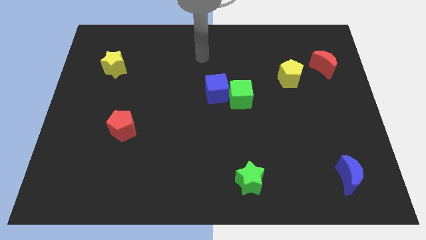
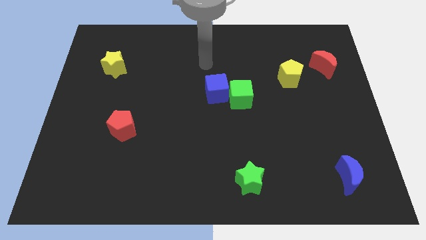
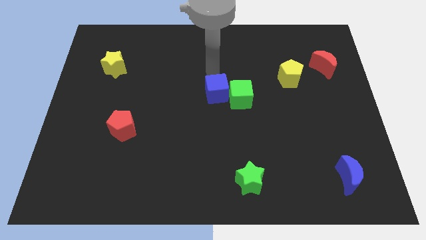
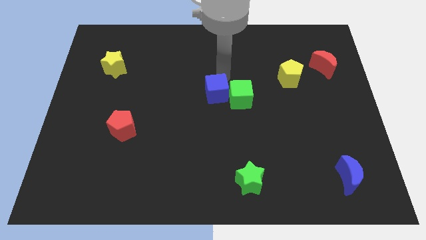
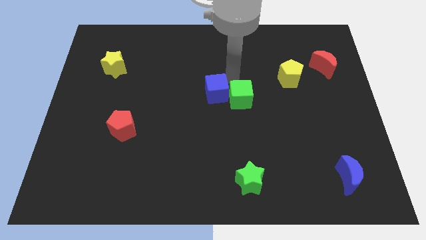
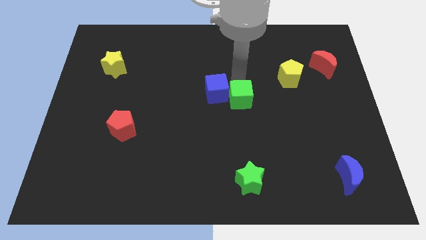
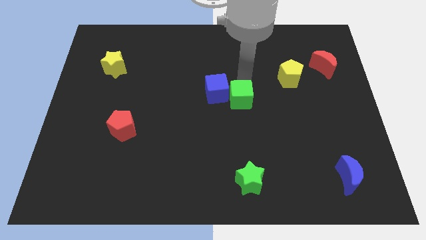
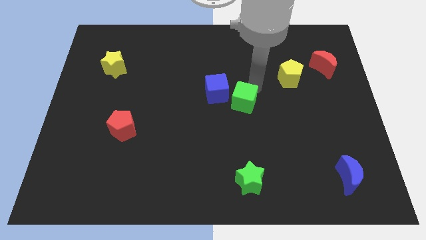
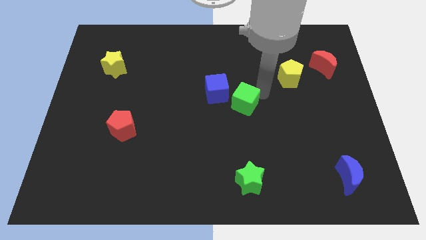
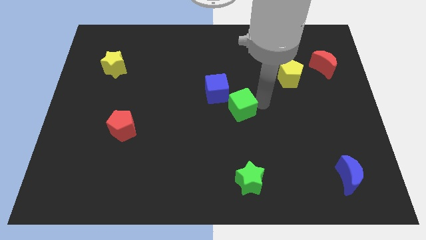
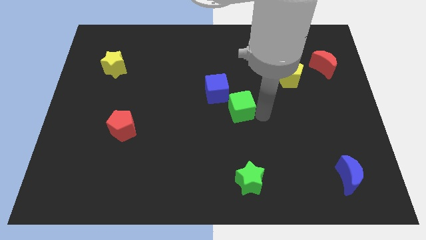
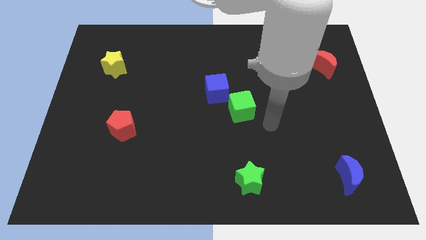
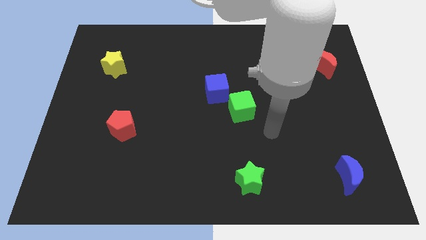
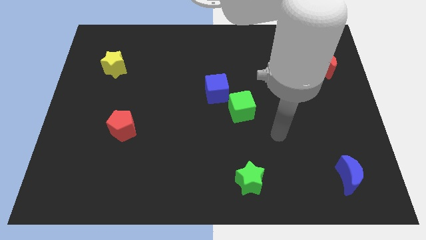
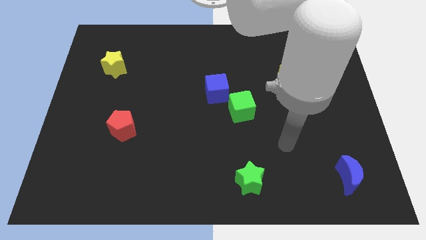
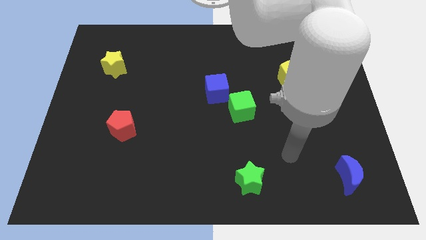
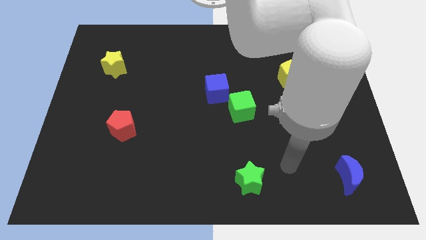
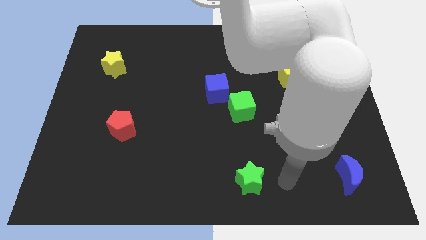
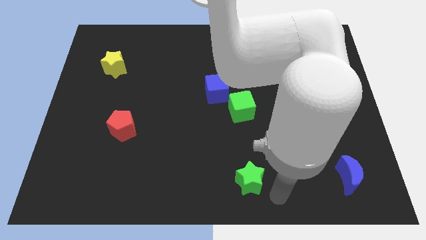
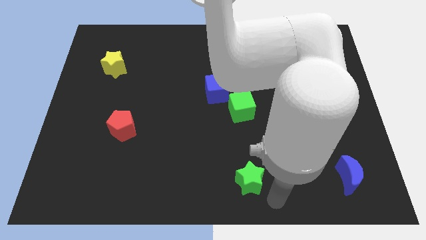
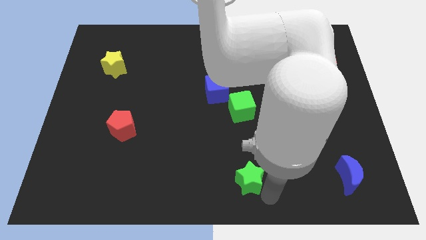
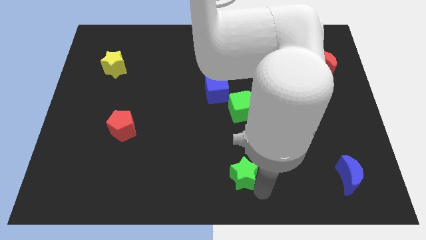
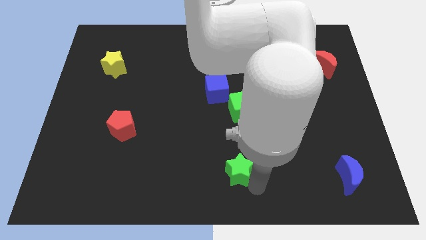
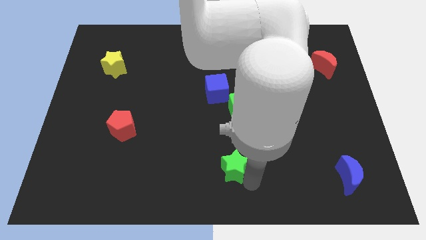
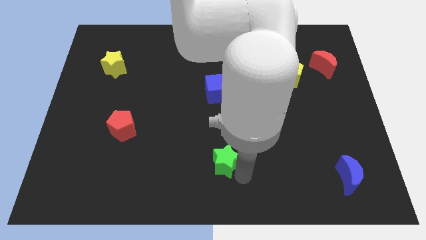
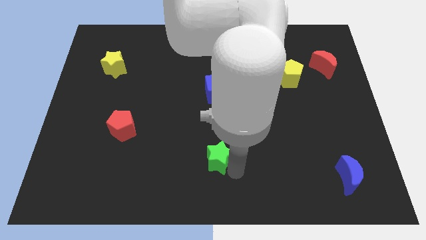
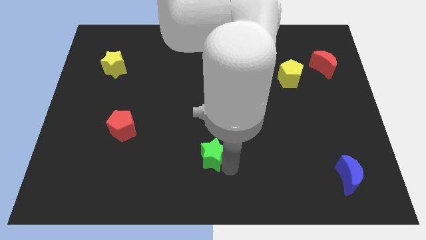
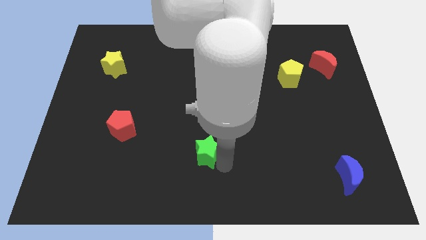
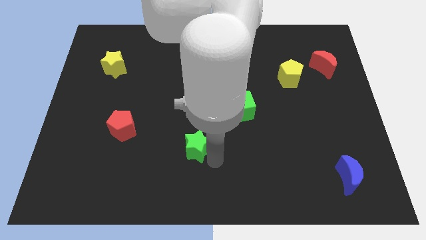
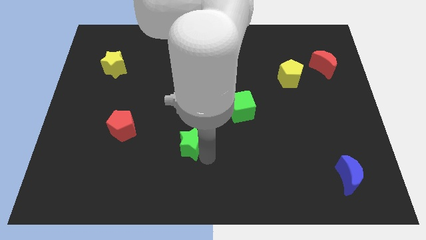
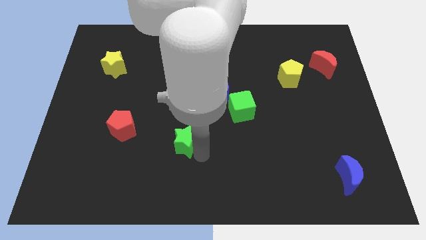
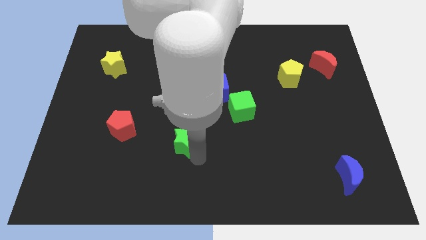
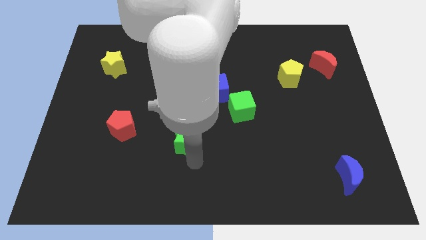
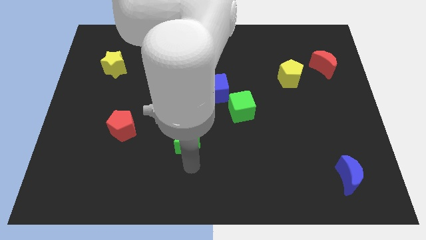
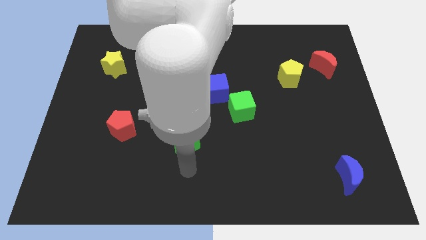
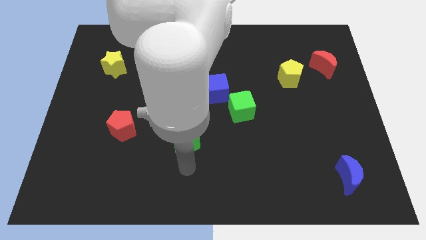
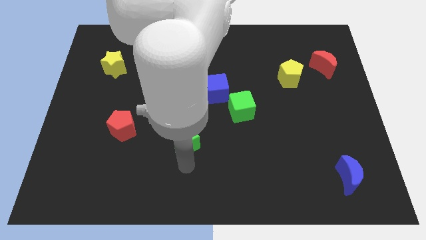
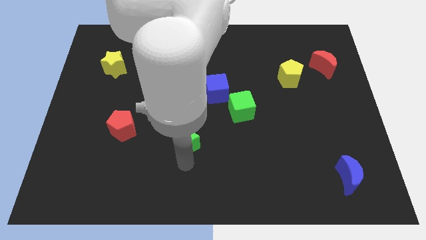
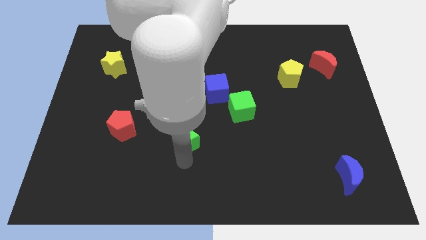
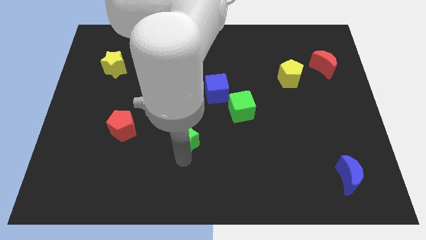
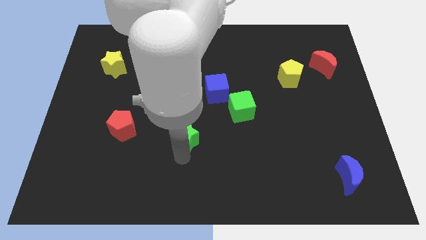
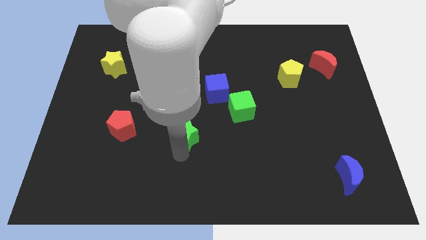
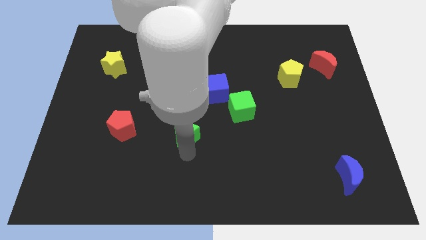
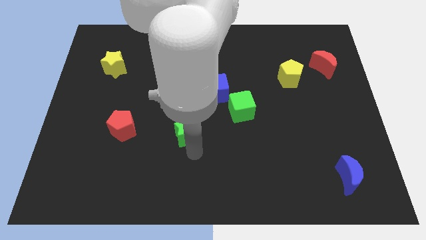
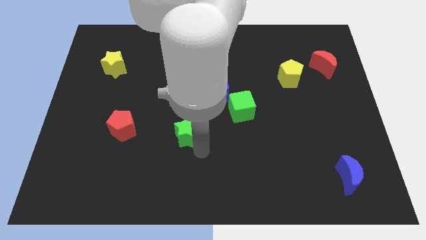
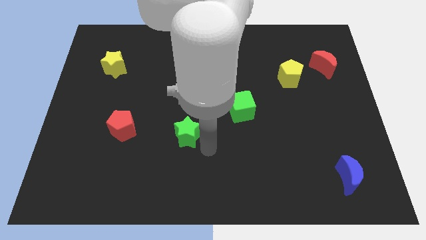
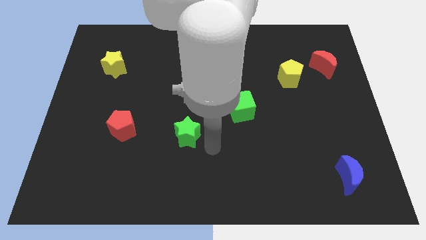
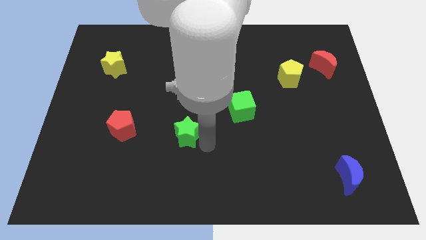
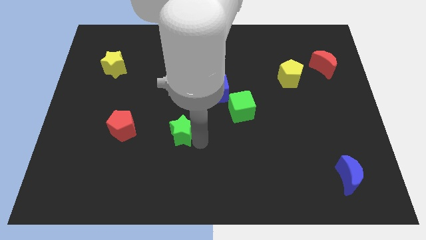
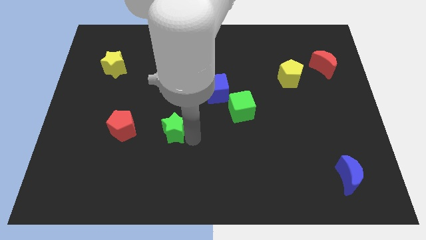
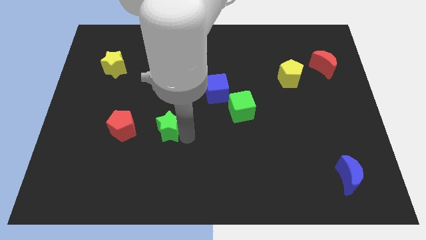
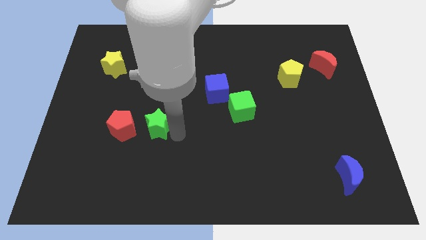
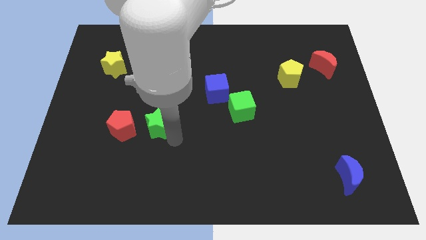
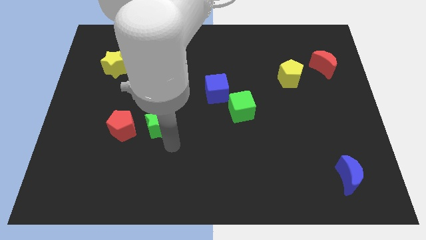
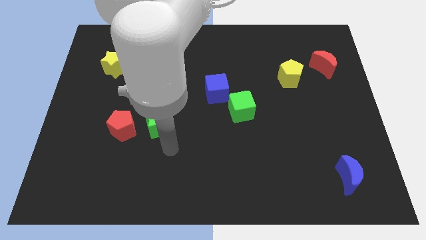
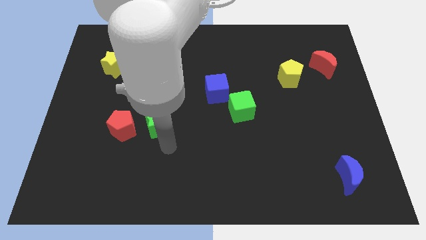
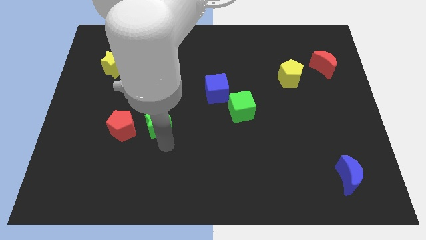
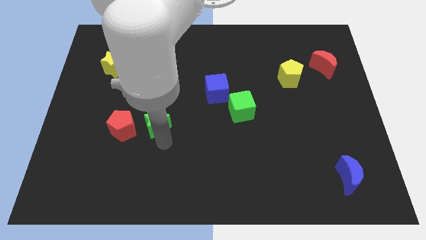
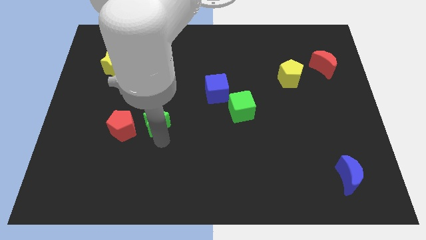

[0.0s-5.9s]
push the green star to the top right of the red pentagon

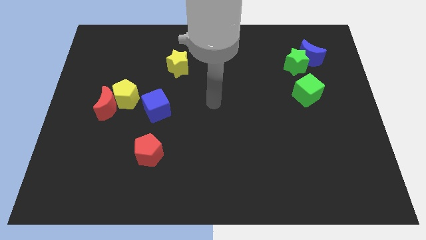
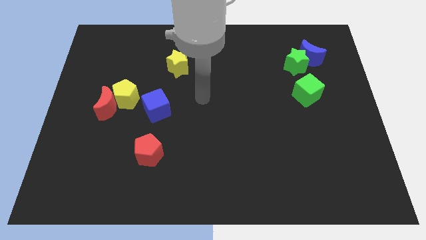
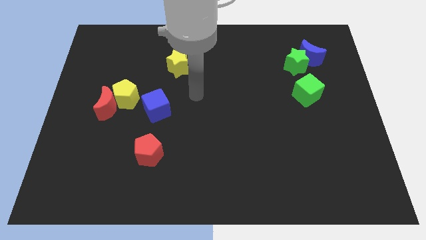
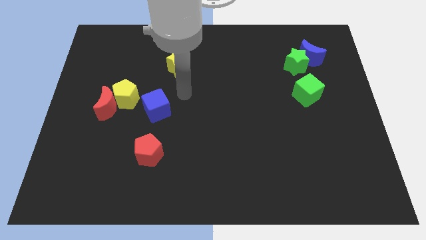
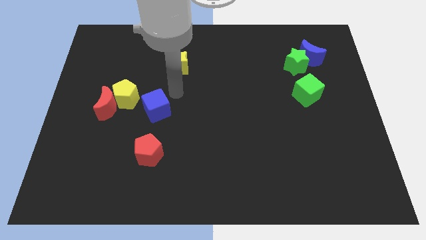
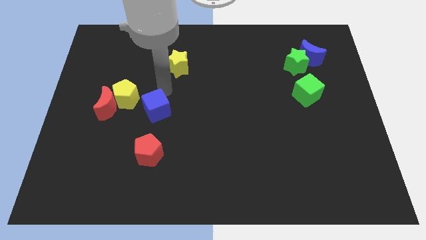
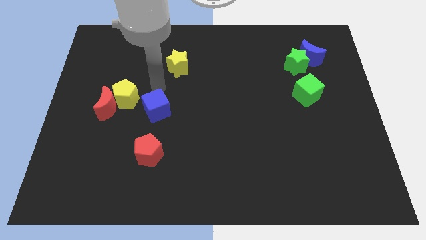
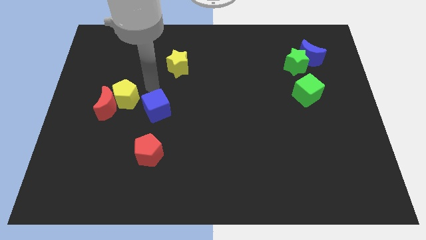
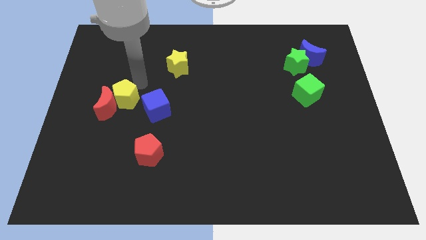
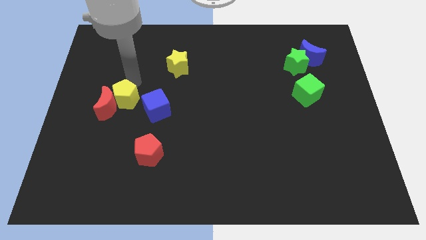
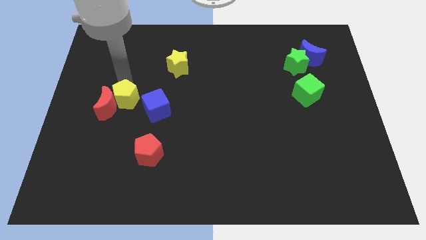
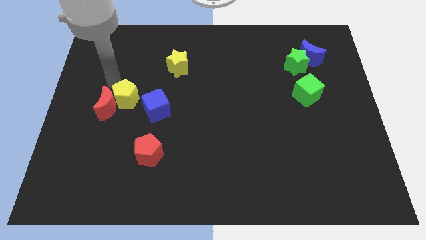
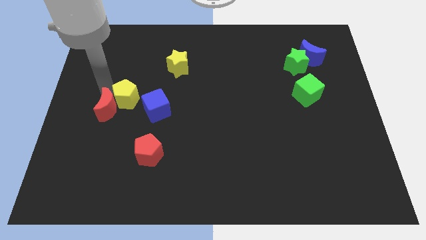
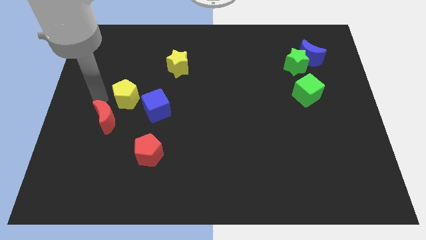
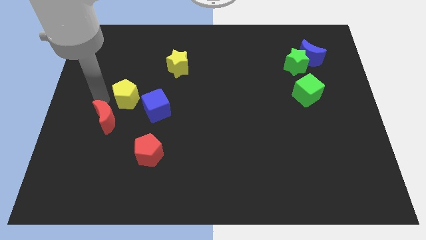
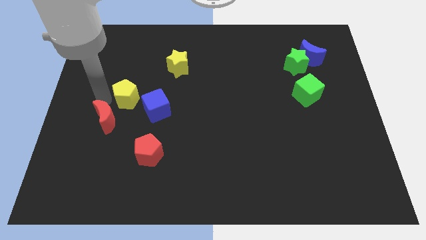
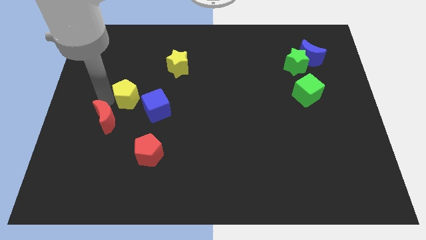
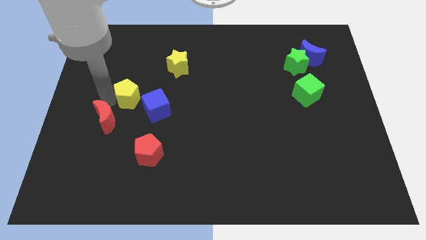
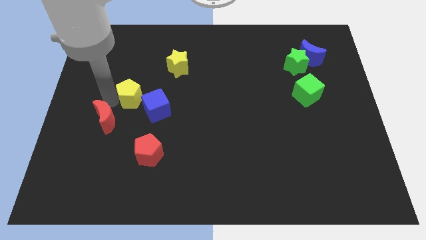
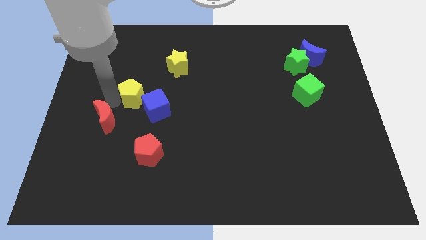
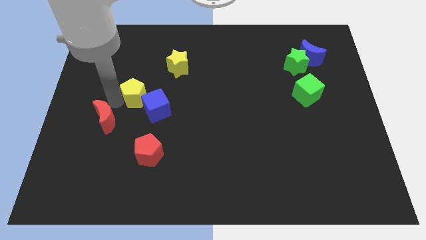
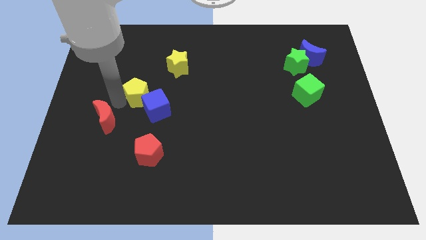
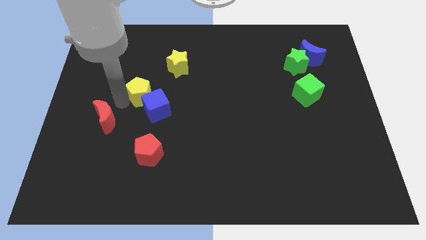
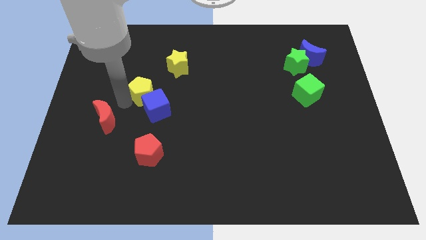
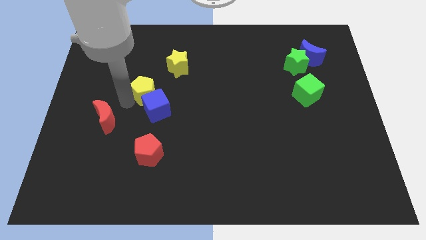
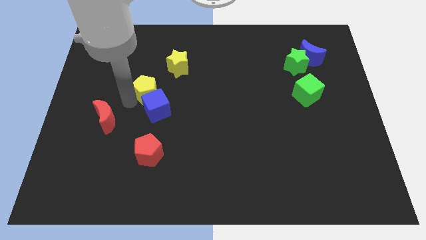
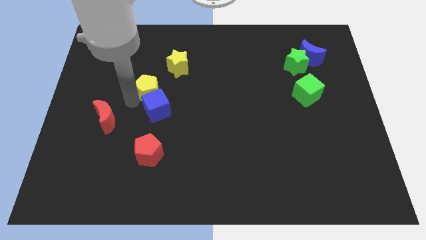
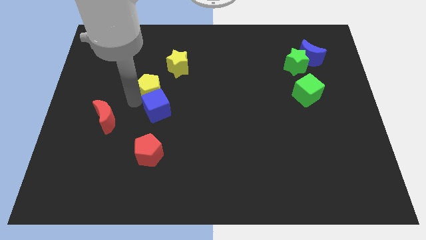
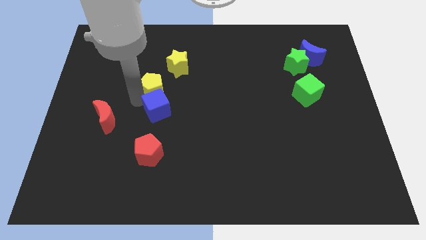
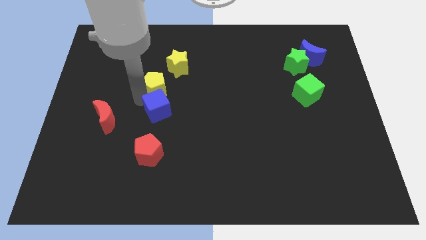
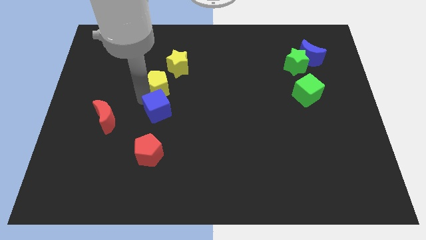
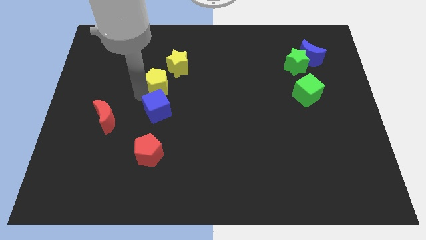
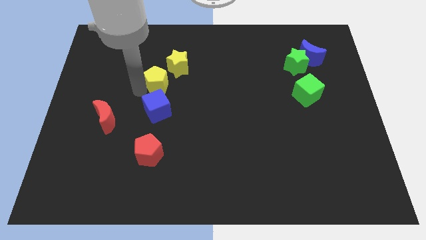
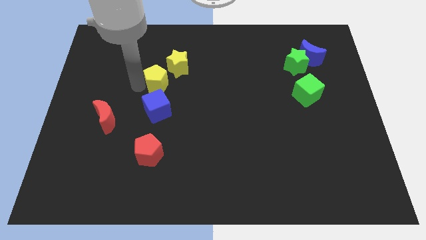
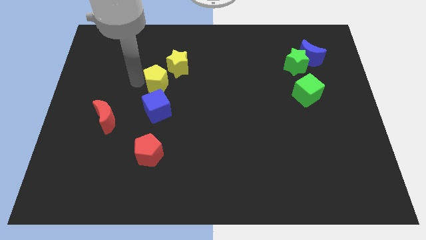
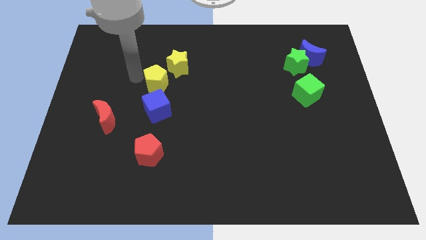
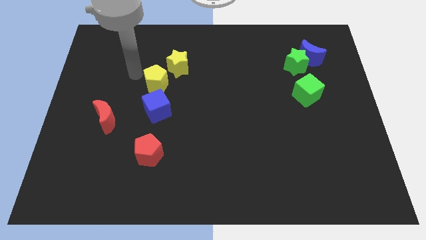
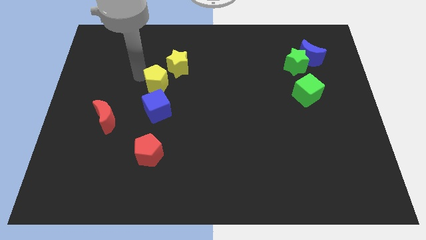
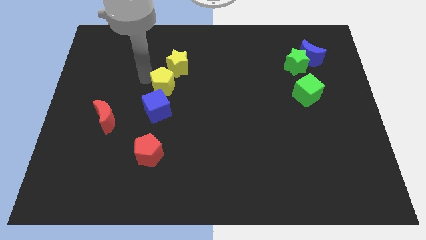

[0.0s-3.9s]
move the yellow pentagon diagonally up and to the right of the blue cube
